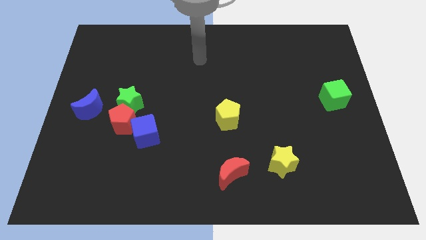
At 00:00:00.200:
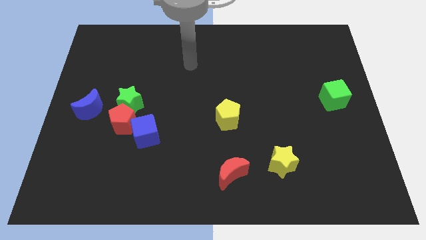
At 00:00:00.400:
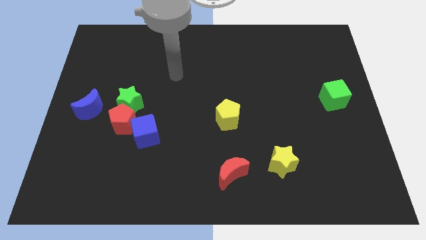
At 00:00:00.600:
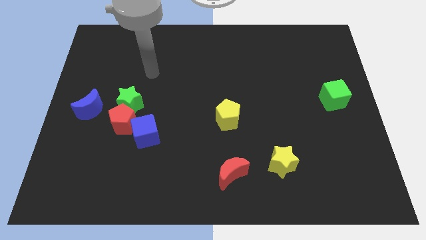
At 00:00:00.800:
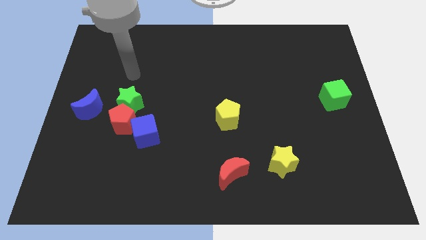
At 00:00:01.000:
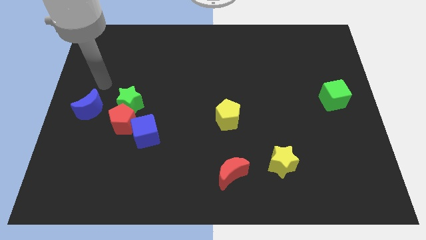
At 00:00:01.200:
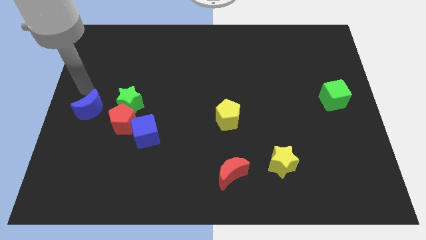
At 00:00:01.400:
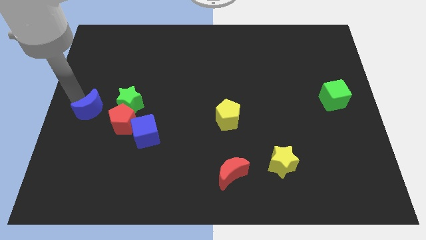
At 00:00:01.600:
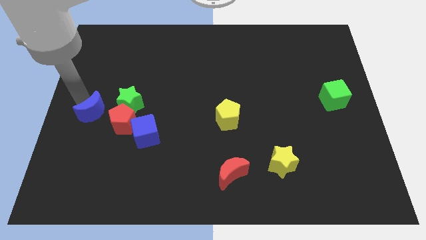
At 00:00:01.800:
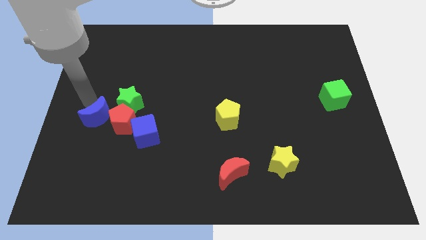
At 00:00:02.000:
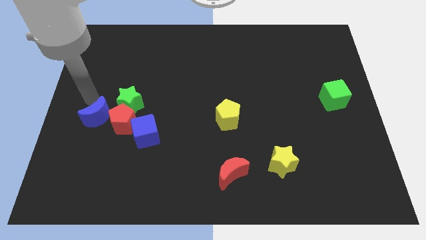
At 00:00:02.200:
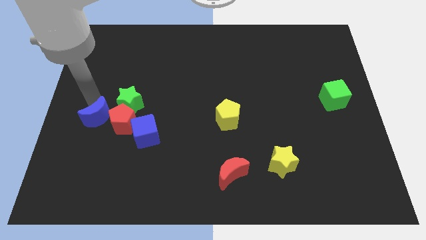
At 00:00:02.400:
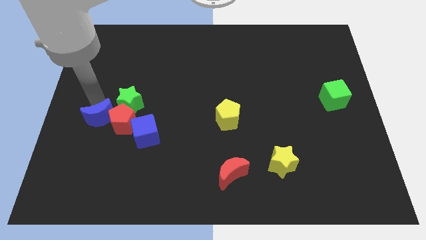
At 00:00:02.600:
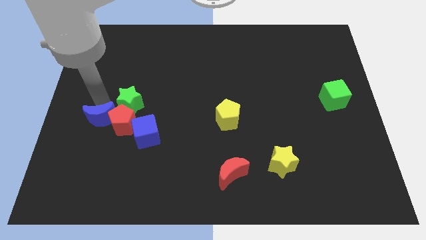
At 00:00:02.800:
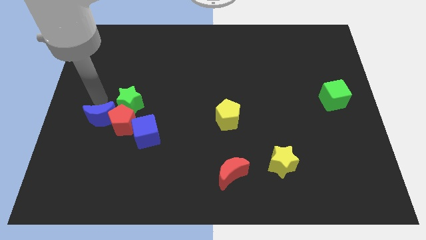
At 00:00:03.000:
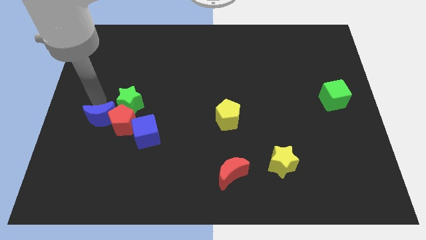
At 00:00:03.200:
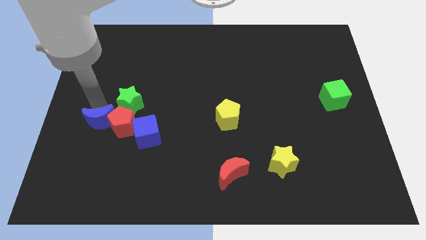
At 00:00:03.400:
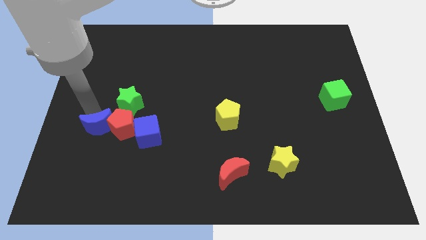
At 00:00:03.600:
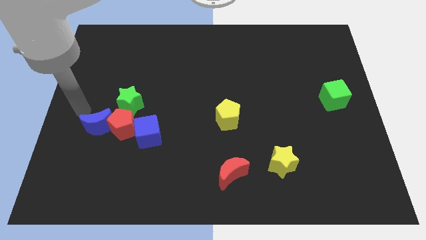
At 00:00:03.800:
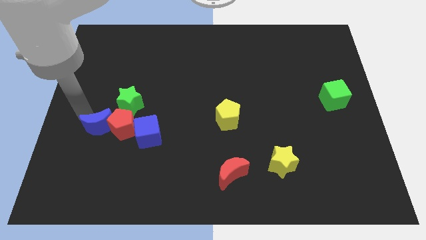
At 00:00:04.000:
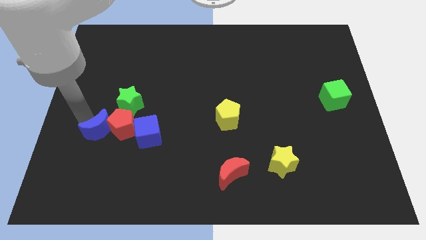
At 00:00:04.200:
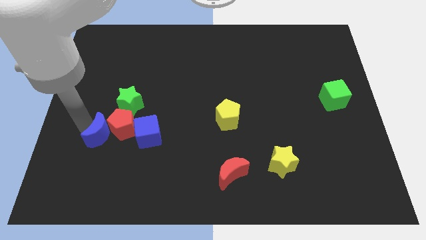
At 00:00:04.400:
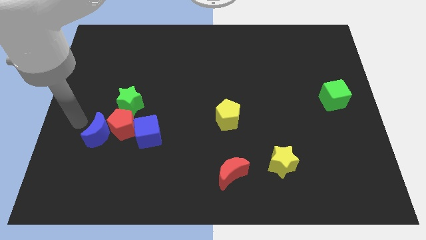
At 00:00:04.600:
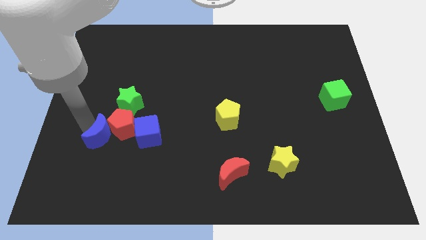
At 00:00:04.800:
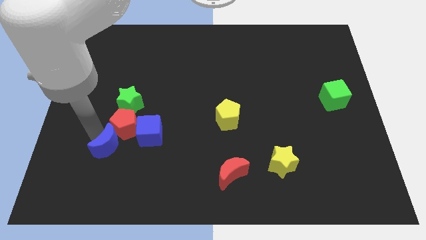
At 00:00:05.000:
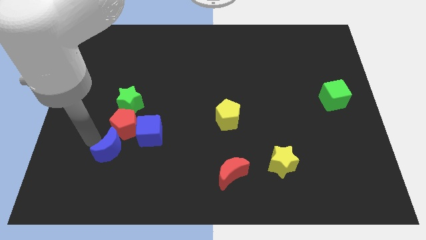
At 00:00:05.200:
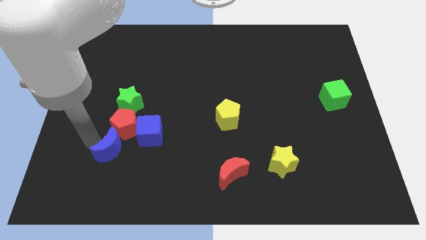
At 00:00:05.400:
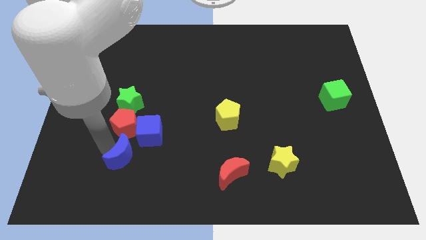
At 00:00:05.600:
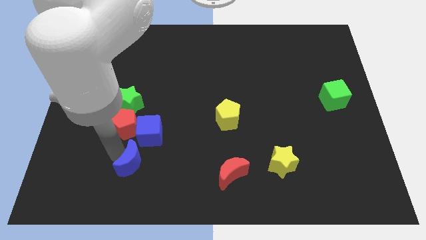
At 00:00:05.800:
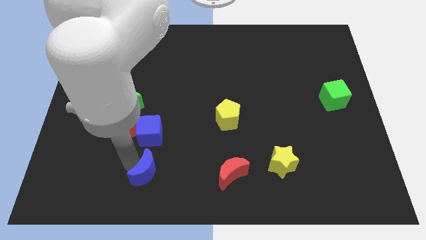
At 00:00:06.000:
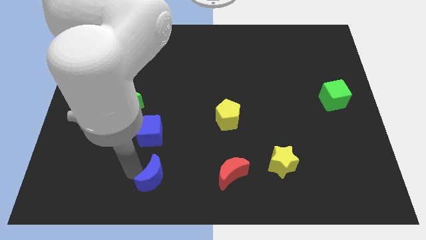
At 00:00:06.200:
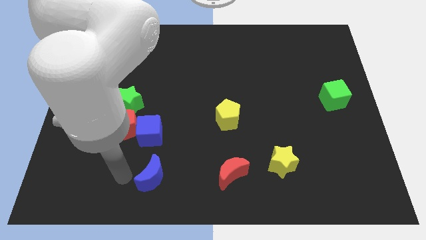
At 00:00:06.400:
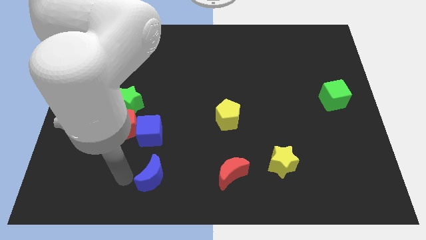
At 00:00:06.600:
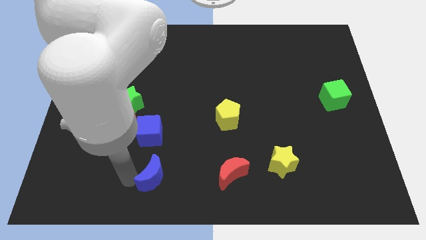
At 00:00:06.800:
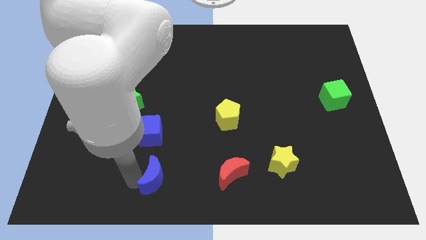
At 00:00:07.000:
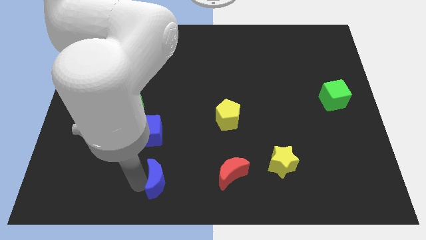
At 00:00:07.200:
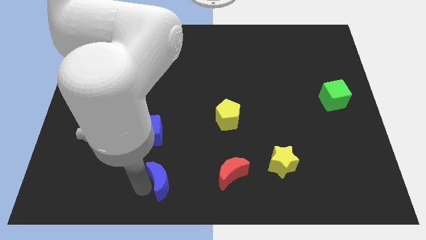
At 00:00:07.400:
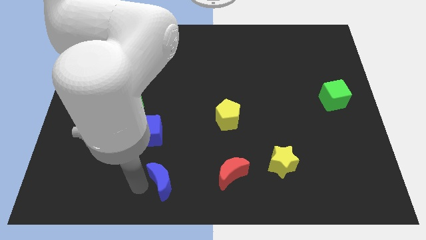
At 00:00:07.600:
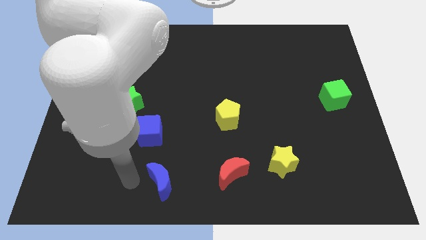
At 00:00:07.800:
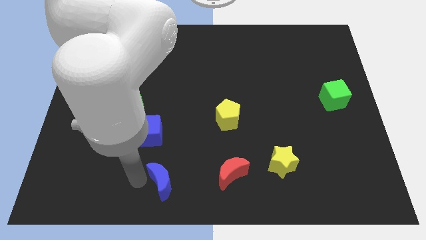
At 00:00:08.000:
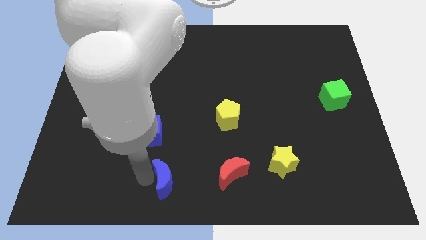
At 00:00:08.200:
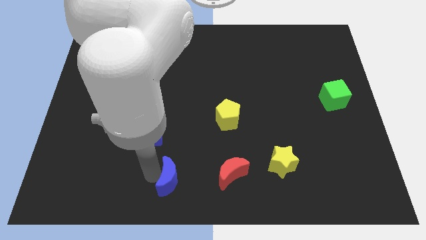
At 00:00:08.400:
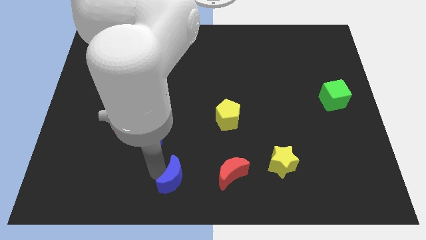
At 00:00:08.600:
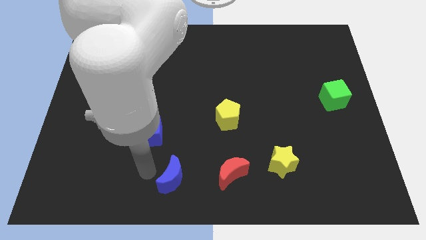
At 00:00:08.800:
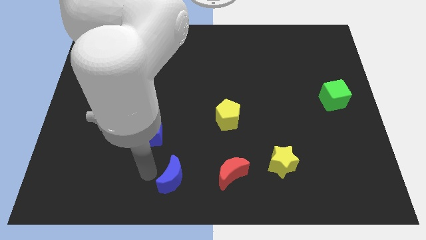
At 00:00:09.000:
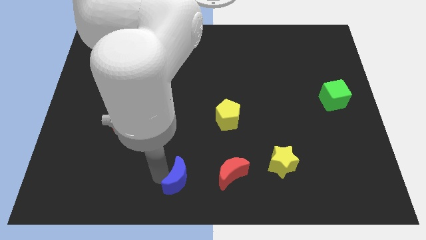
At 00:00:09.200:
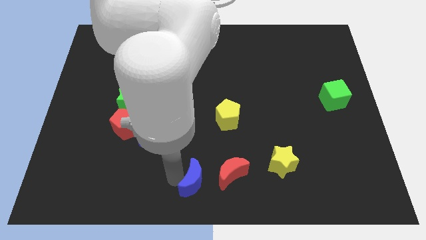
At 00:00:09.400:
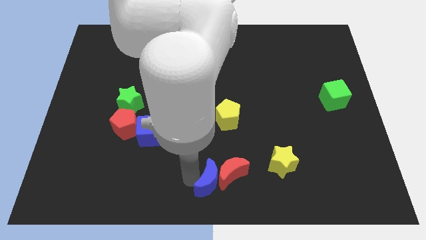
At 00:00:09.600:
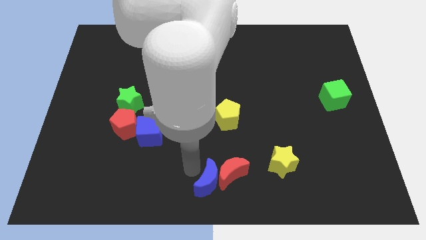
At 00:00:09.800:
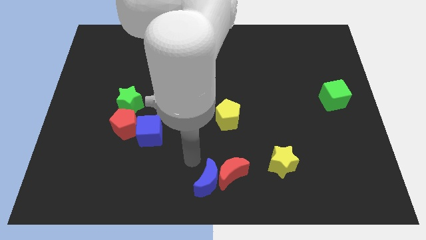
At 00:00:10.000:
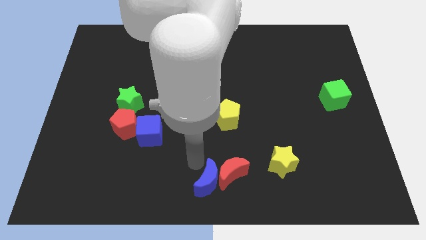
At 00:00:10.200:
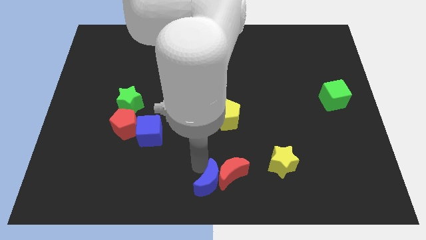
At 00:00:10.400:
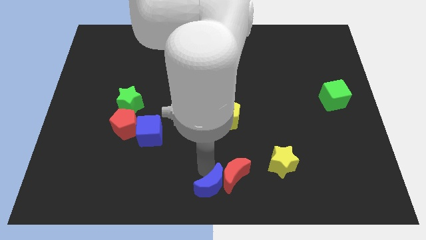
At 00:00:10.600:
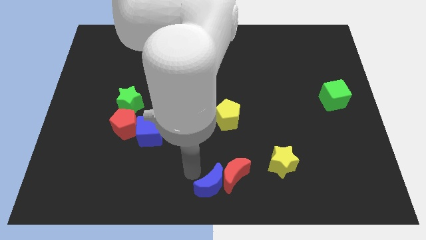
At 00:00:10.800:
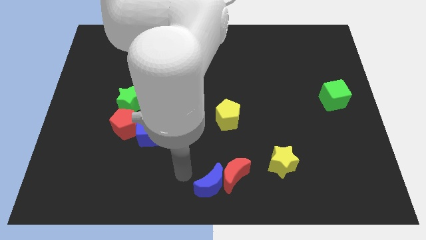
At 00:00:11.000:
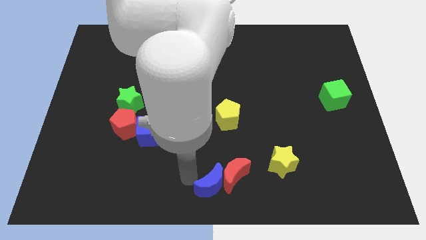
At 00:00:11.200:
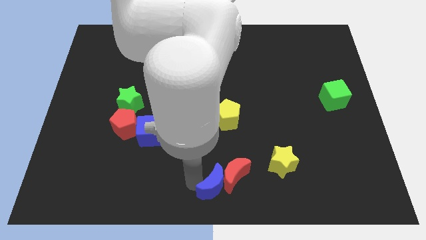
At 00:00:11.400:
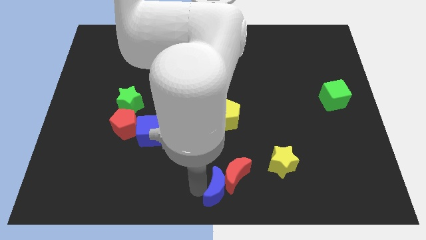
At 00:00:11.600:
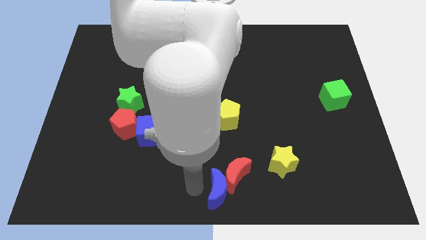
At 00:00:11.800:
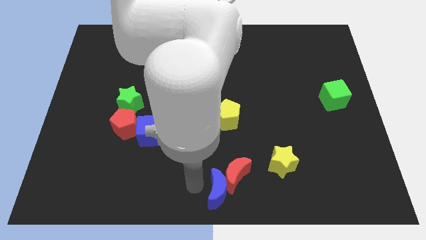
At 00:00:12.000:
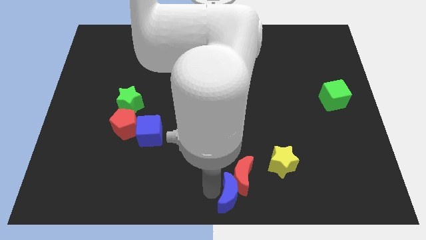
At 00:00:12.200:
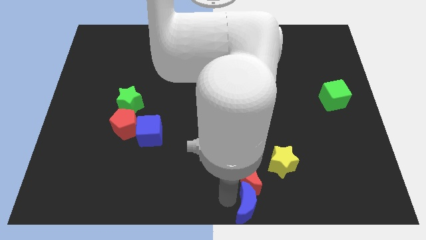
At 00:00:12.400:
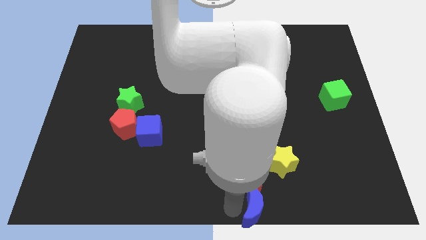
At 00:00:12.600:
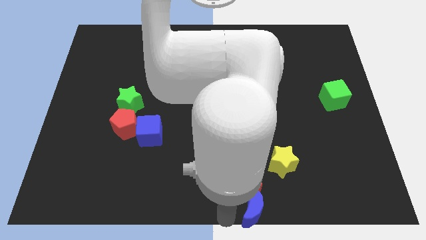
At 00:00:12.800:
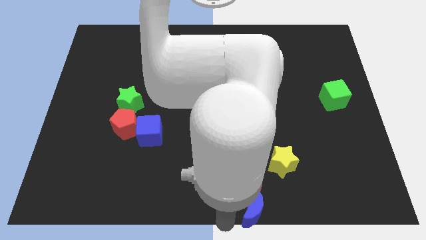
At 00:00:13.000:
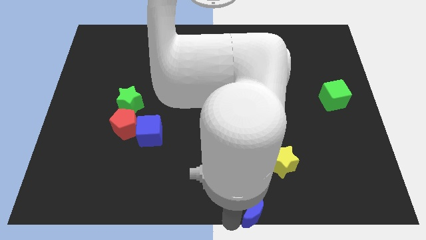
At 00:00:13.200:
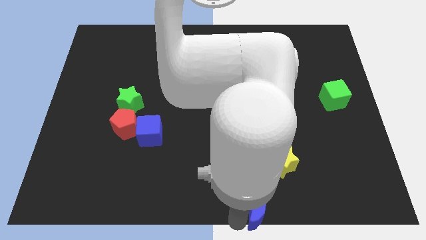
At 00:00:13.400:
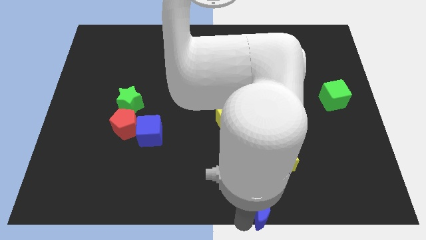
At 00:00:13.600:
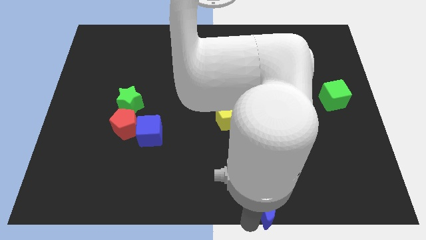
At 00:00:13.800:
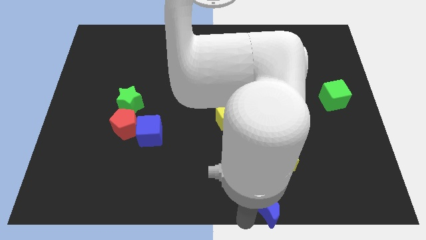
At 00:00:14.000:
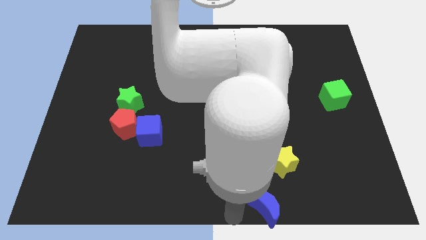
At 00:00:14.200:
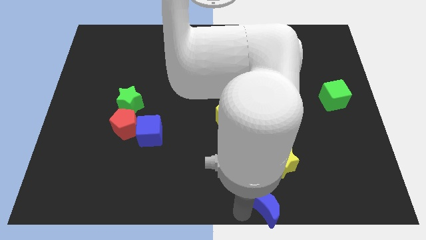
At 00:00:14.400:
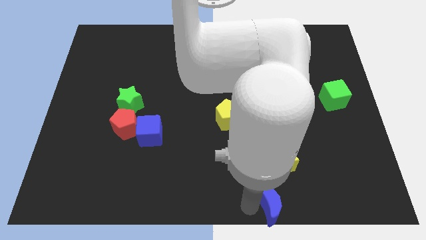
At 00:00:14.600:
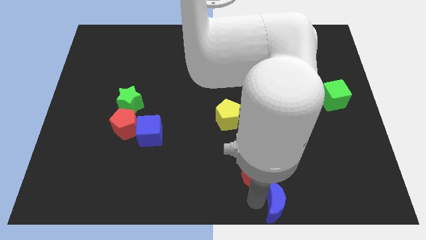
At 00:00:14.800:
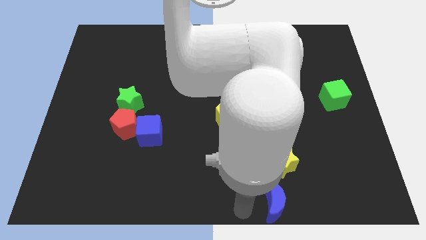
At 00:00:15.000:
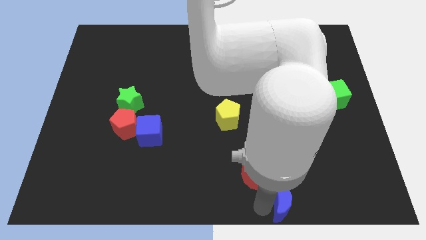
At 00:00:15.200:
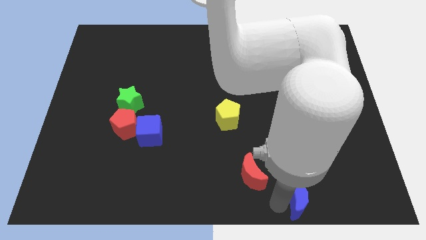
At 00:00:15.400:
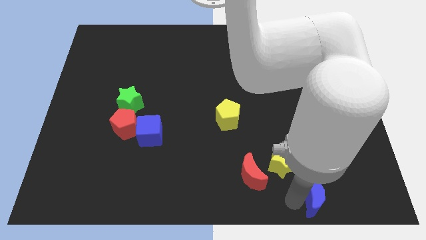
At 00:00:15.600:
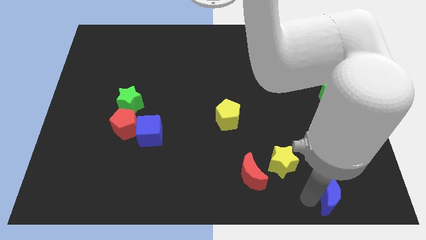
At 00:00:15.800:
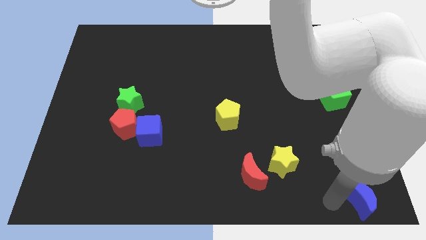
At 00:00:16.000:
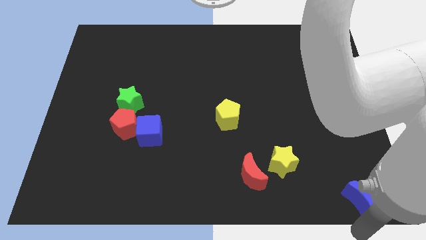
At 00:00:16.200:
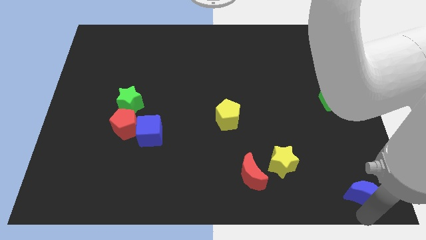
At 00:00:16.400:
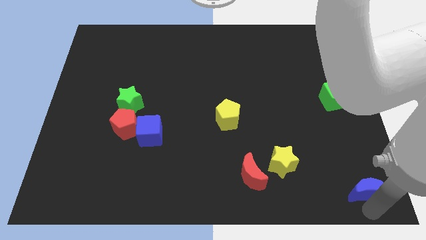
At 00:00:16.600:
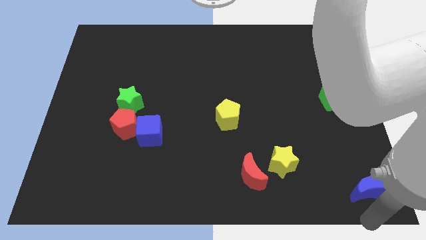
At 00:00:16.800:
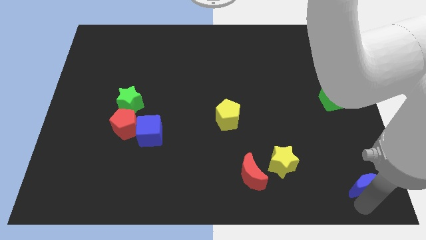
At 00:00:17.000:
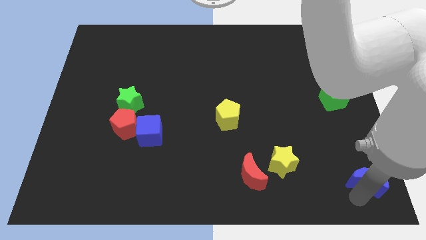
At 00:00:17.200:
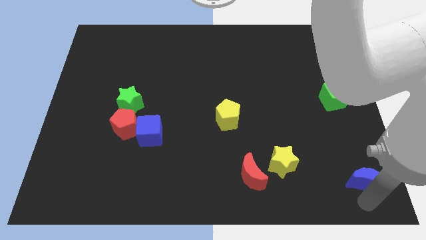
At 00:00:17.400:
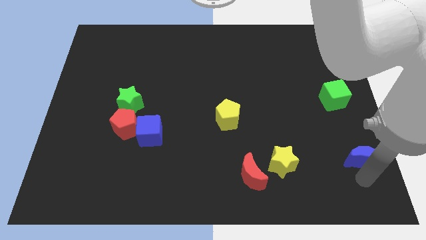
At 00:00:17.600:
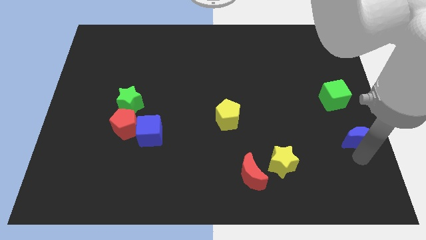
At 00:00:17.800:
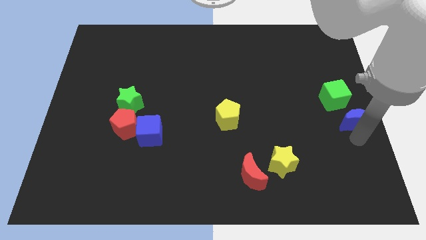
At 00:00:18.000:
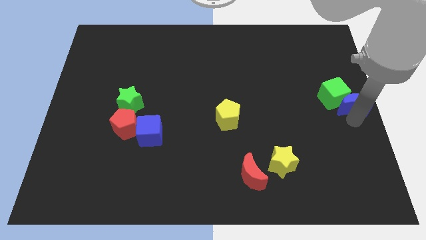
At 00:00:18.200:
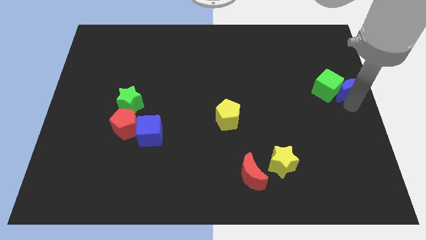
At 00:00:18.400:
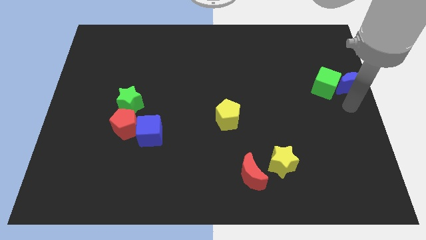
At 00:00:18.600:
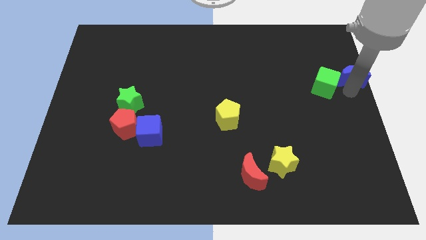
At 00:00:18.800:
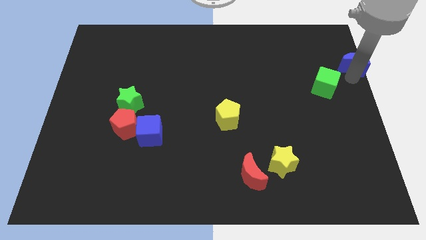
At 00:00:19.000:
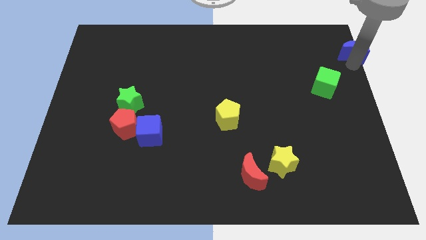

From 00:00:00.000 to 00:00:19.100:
push the blue moon to the upper right corner
